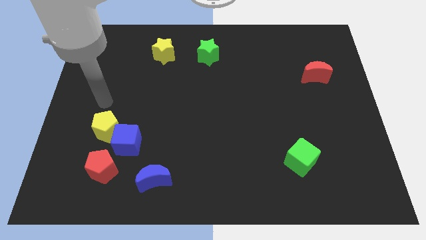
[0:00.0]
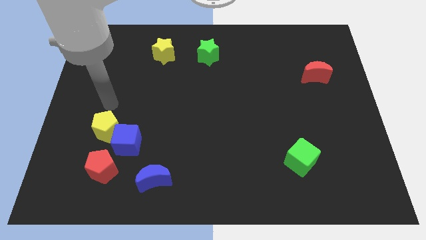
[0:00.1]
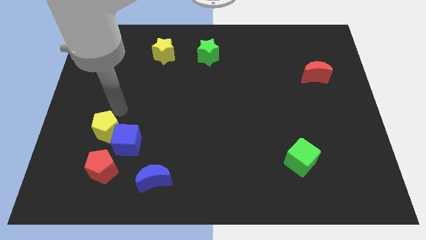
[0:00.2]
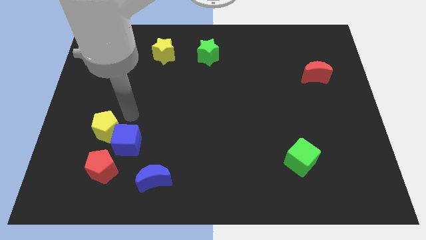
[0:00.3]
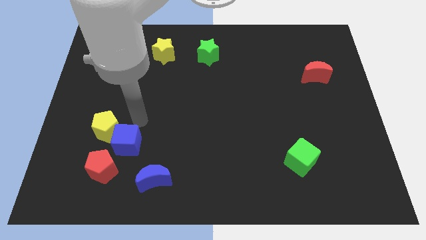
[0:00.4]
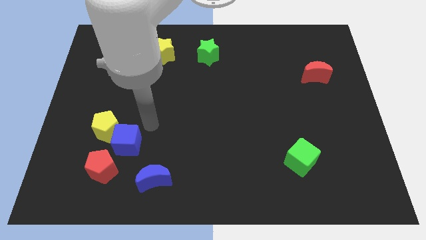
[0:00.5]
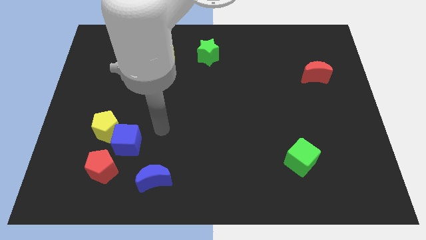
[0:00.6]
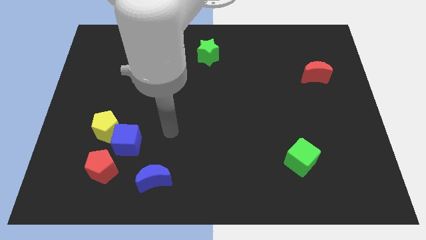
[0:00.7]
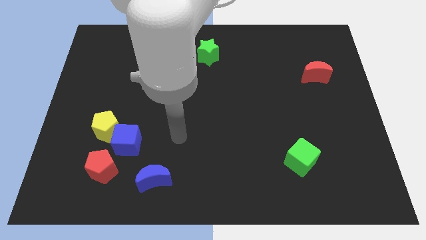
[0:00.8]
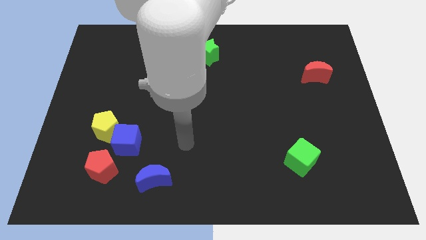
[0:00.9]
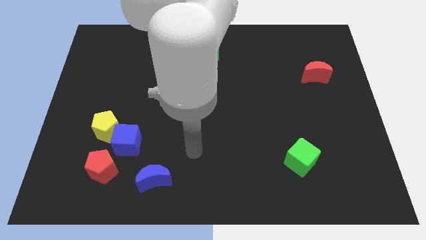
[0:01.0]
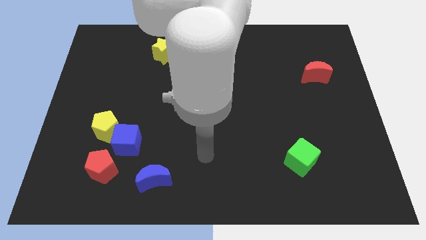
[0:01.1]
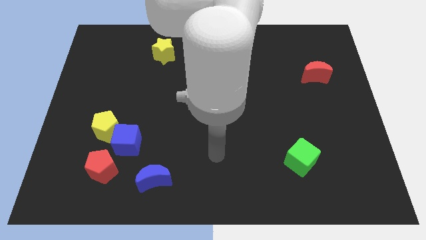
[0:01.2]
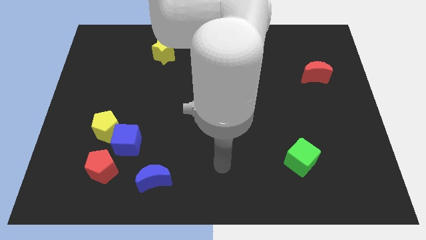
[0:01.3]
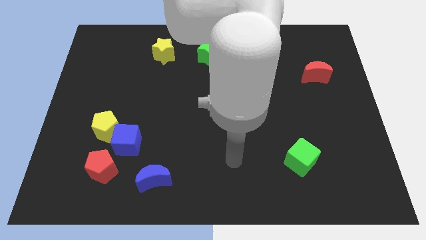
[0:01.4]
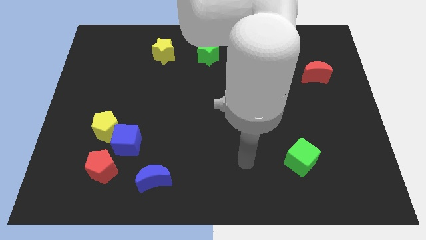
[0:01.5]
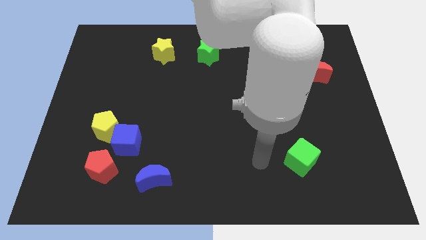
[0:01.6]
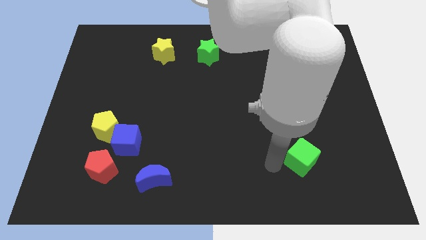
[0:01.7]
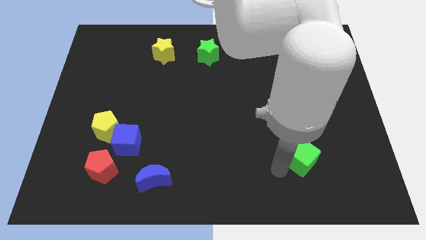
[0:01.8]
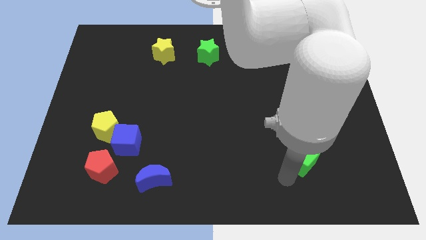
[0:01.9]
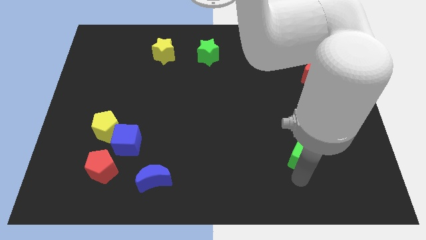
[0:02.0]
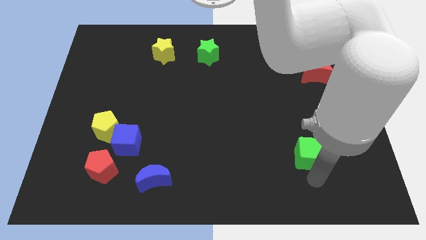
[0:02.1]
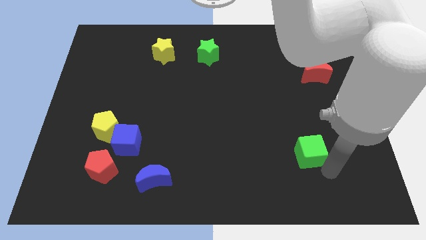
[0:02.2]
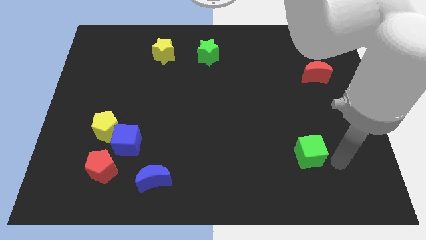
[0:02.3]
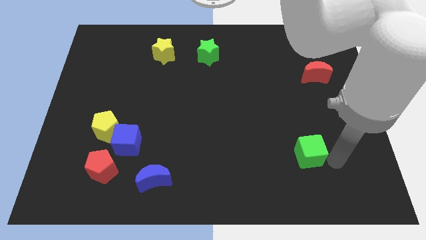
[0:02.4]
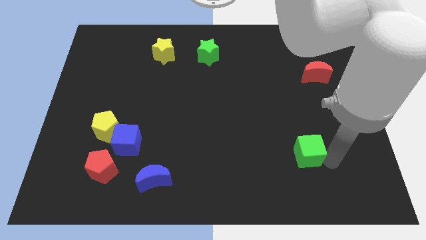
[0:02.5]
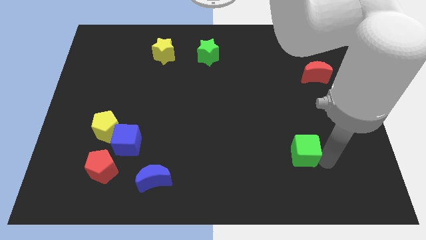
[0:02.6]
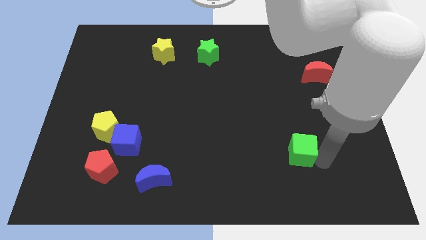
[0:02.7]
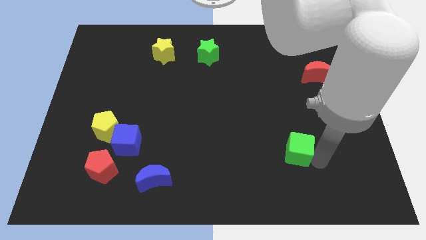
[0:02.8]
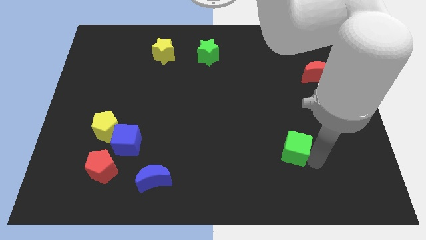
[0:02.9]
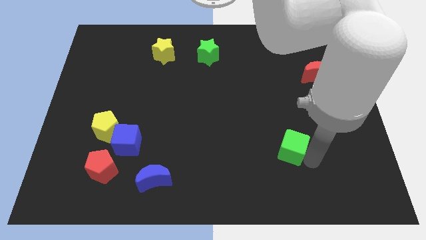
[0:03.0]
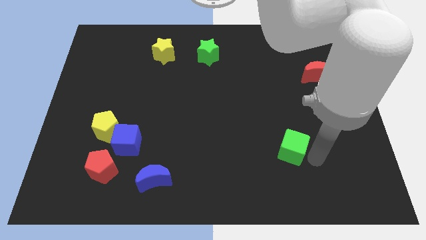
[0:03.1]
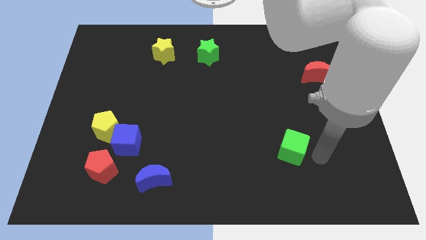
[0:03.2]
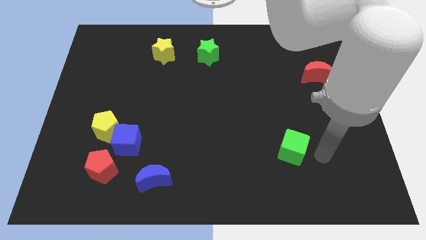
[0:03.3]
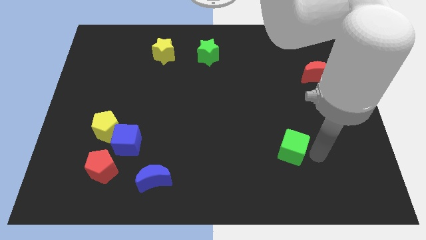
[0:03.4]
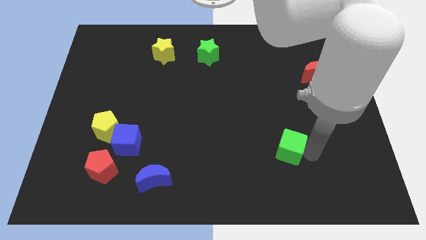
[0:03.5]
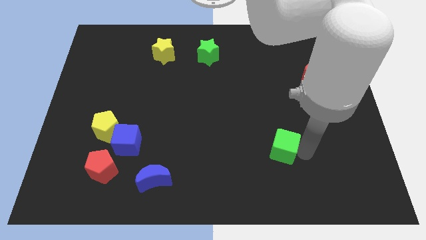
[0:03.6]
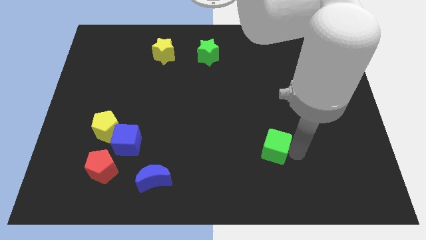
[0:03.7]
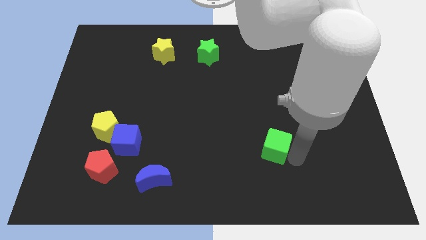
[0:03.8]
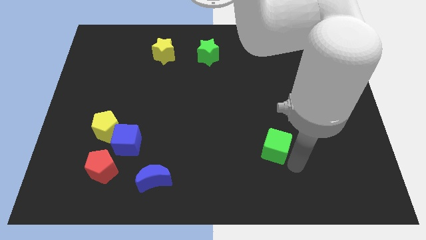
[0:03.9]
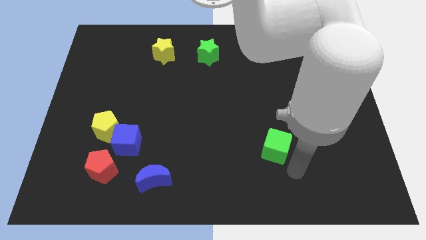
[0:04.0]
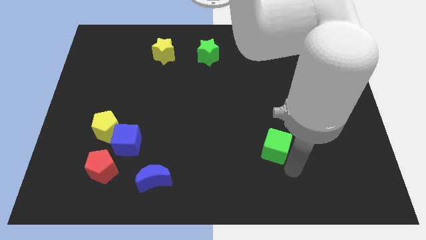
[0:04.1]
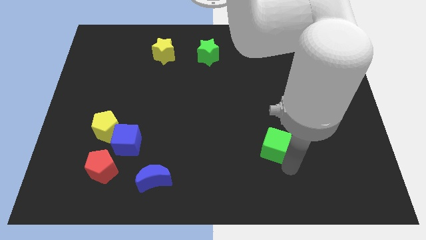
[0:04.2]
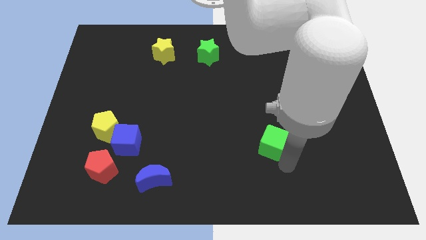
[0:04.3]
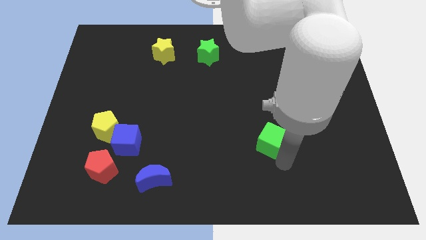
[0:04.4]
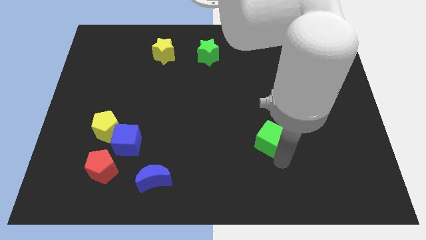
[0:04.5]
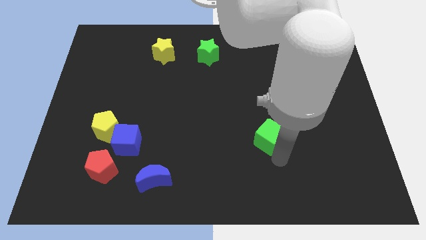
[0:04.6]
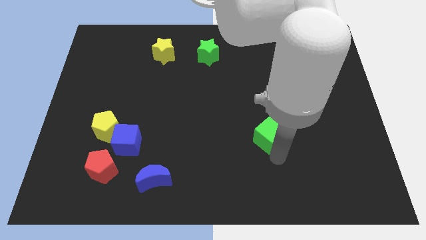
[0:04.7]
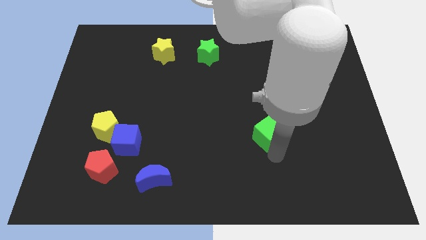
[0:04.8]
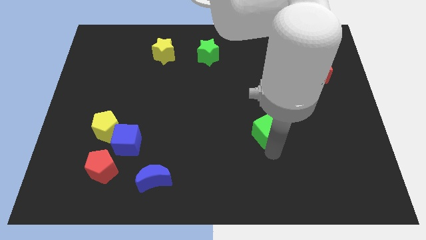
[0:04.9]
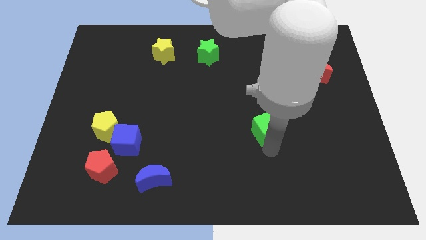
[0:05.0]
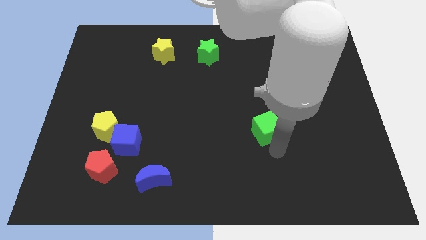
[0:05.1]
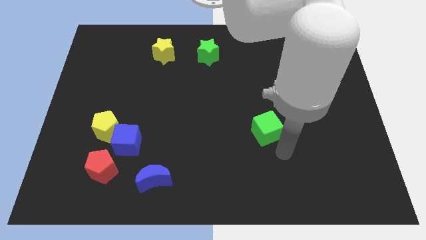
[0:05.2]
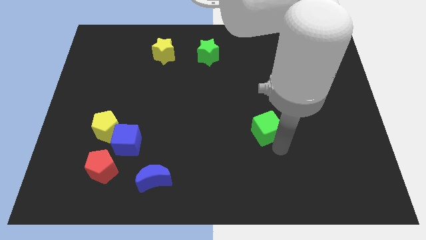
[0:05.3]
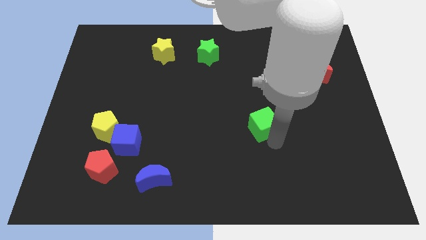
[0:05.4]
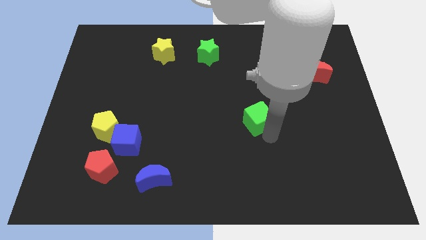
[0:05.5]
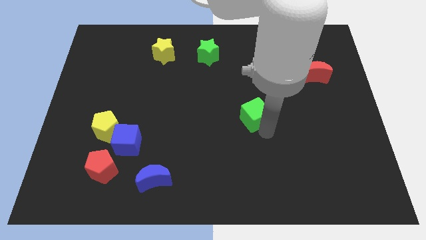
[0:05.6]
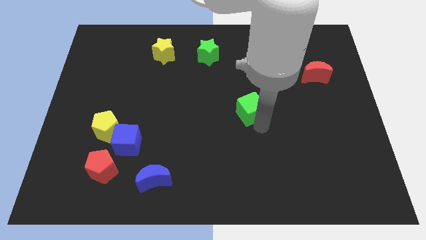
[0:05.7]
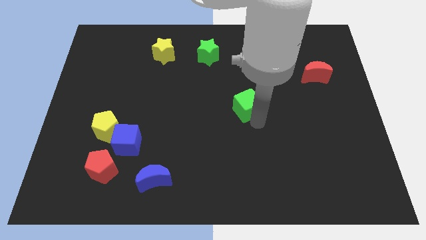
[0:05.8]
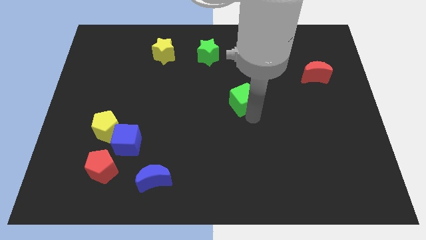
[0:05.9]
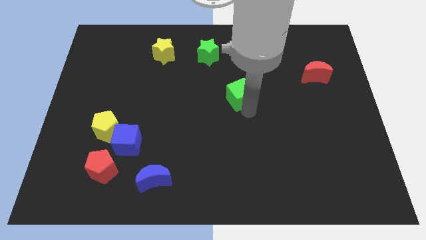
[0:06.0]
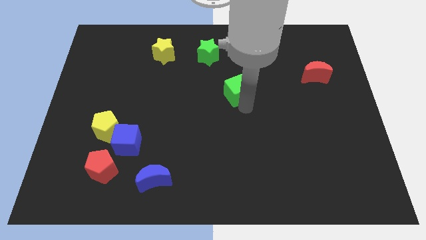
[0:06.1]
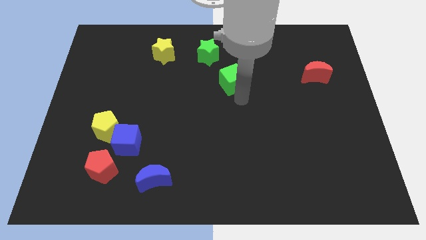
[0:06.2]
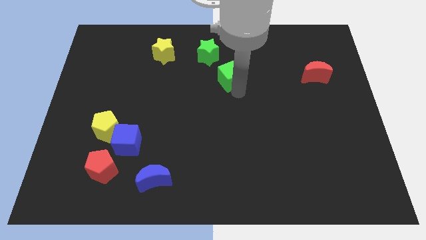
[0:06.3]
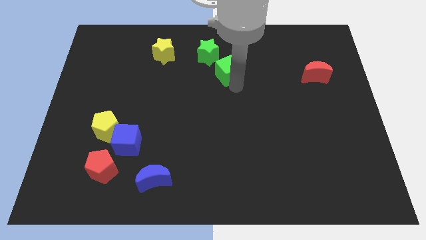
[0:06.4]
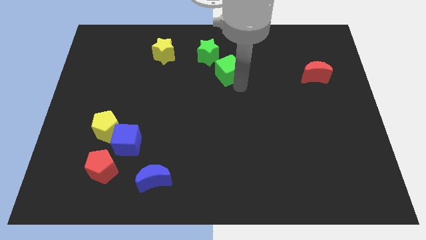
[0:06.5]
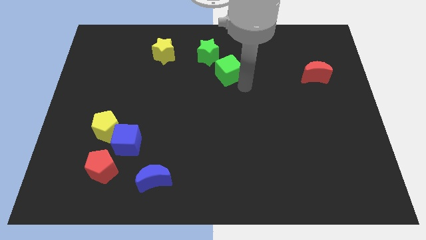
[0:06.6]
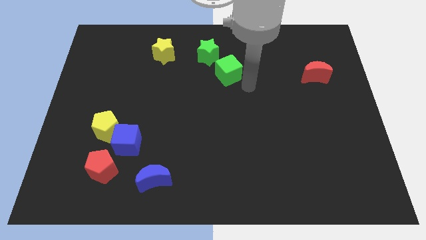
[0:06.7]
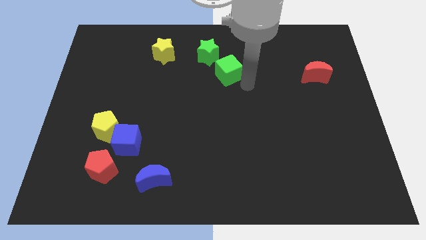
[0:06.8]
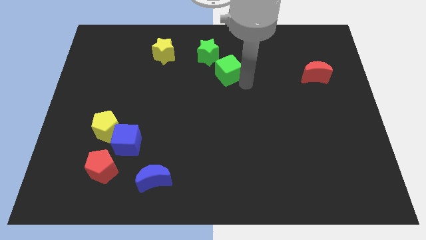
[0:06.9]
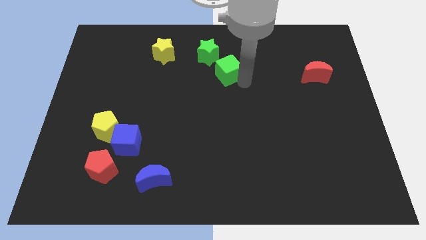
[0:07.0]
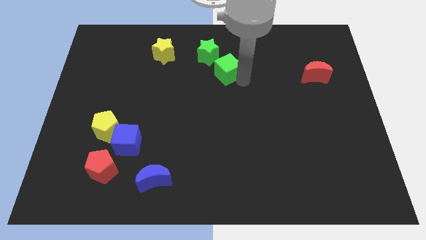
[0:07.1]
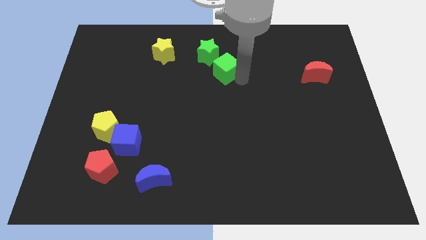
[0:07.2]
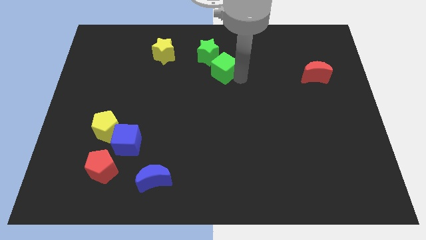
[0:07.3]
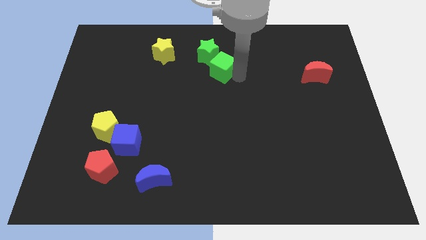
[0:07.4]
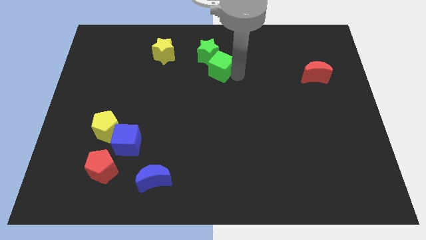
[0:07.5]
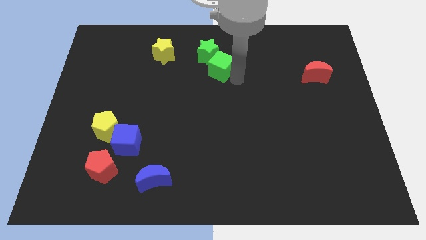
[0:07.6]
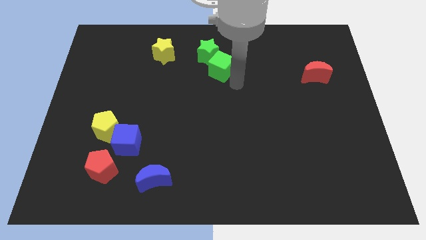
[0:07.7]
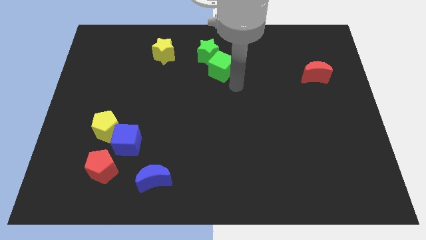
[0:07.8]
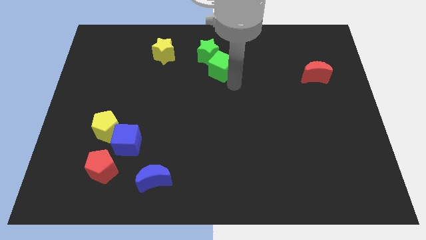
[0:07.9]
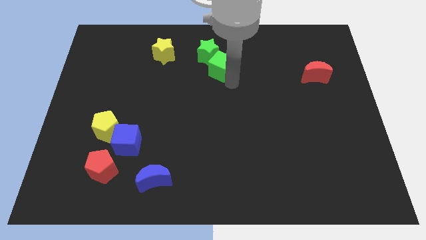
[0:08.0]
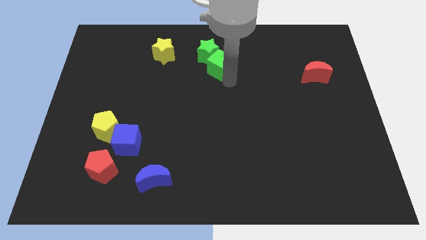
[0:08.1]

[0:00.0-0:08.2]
slide the green cube next to the green star
